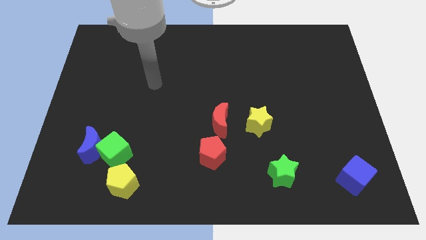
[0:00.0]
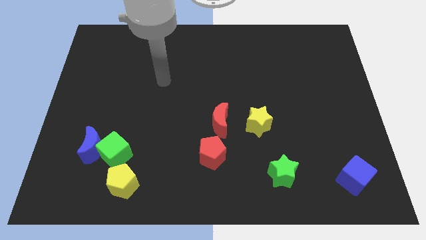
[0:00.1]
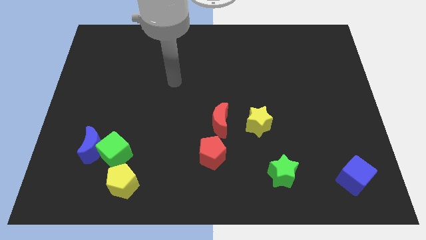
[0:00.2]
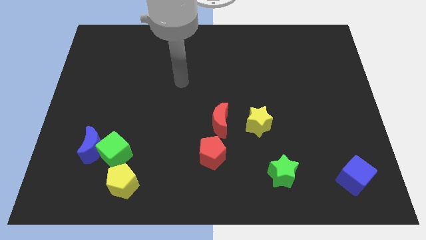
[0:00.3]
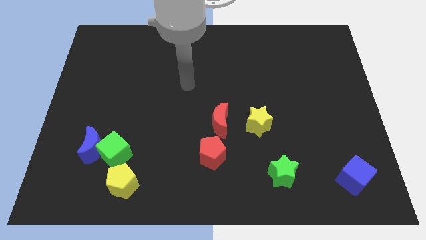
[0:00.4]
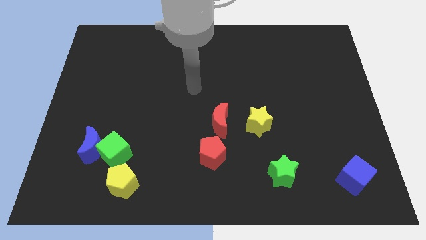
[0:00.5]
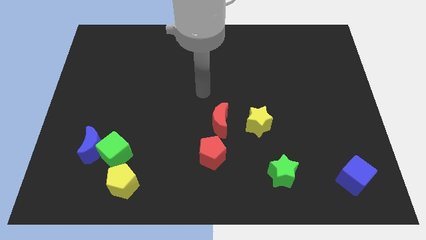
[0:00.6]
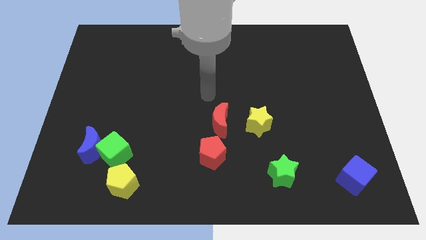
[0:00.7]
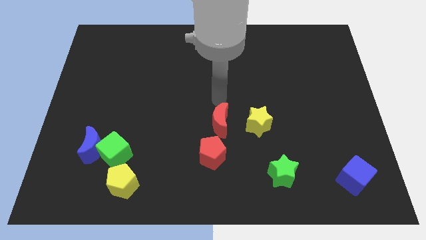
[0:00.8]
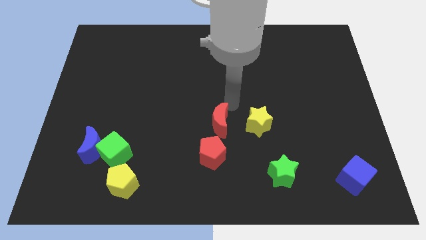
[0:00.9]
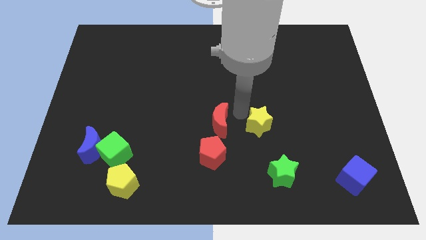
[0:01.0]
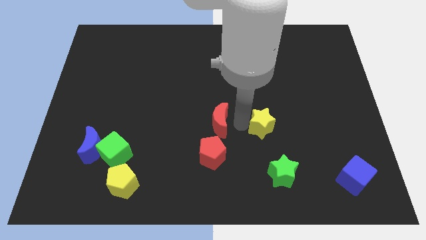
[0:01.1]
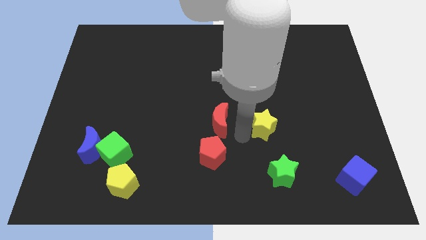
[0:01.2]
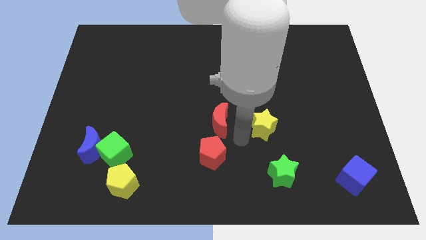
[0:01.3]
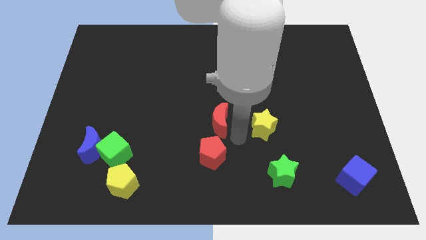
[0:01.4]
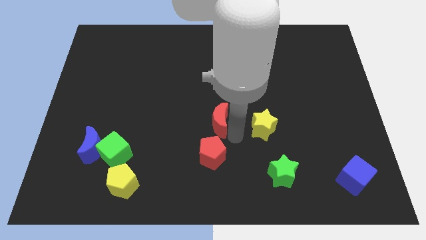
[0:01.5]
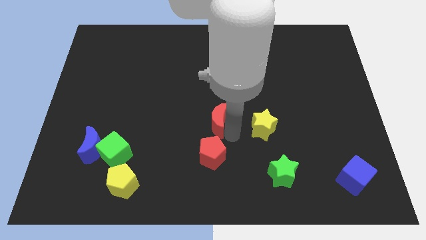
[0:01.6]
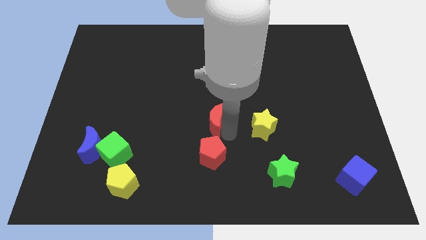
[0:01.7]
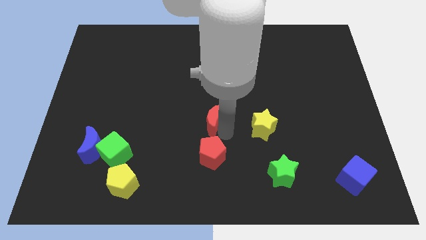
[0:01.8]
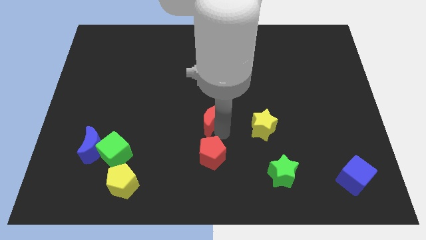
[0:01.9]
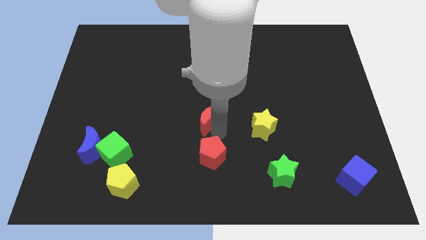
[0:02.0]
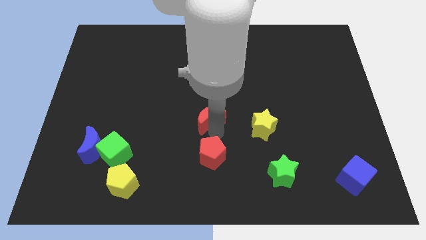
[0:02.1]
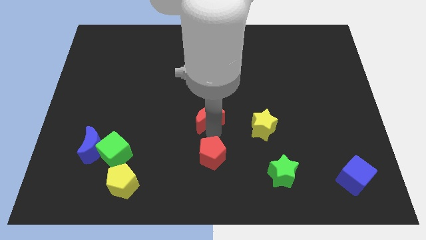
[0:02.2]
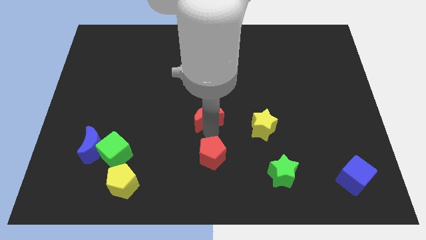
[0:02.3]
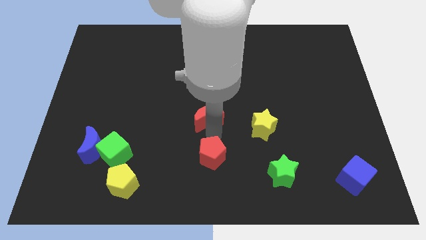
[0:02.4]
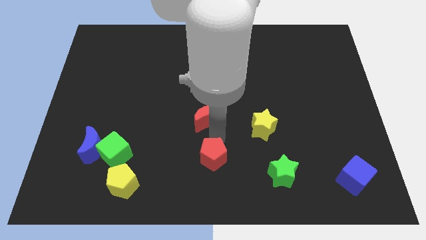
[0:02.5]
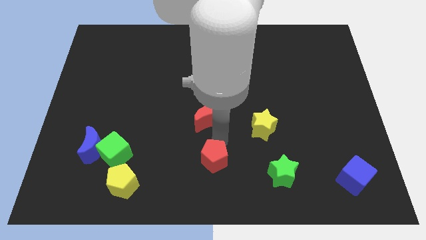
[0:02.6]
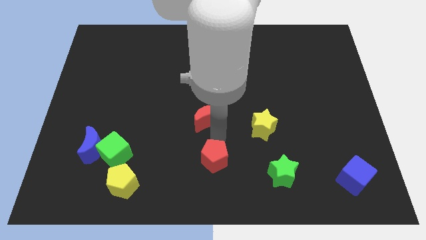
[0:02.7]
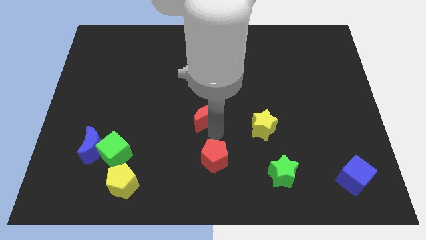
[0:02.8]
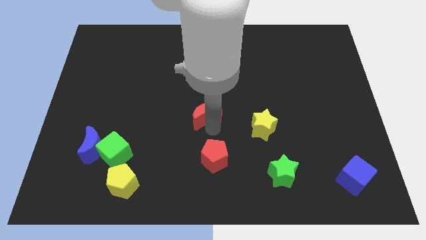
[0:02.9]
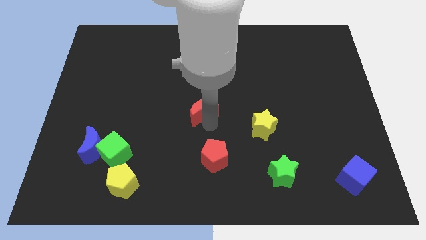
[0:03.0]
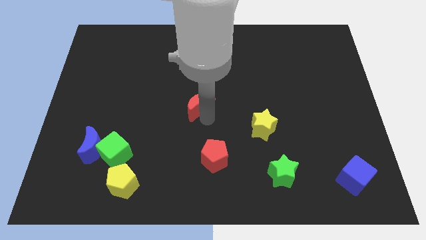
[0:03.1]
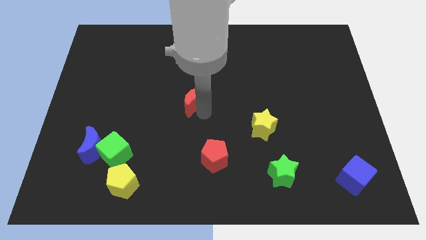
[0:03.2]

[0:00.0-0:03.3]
move the red moon diagonally up and to the left slightly

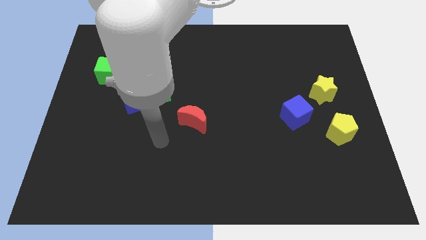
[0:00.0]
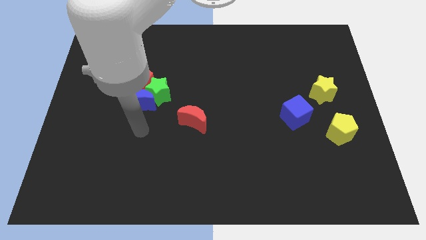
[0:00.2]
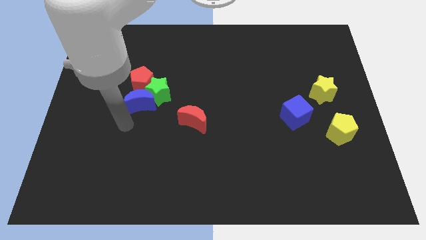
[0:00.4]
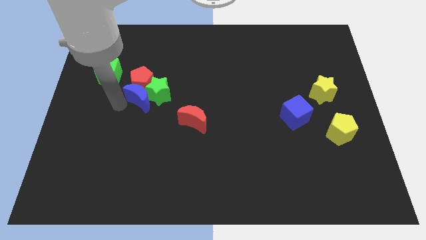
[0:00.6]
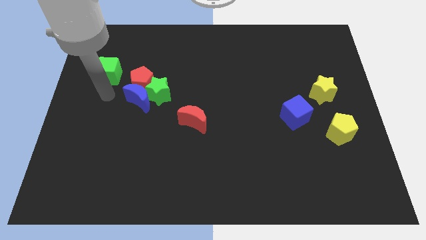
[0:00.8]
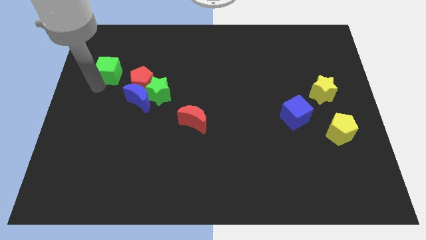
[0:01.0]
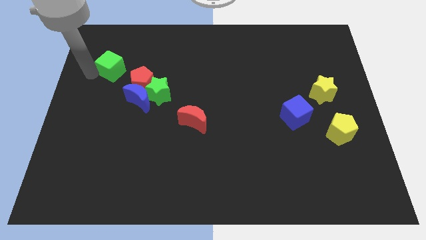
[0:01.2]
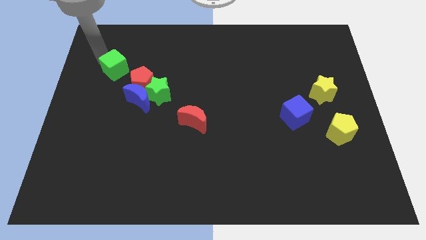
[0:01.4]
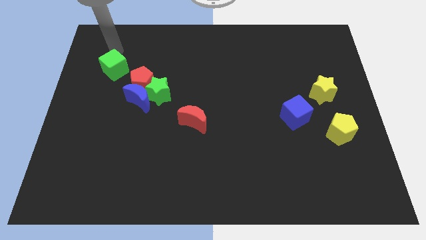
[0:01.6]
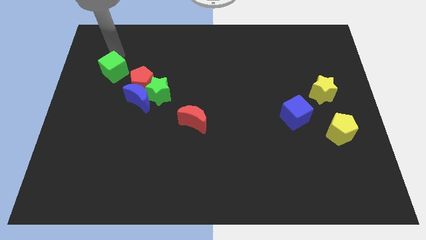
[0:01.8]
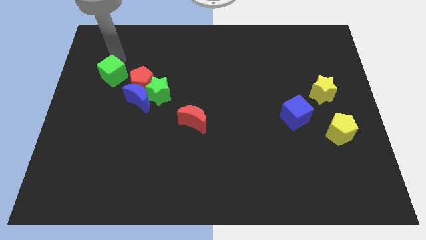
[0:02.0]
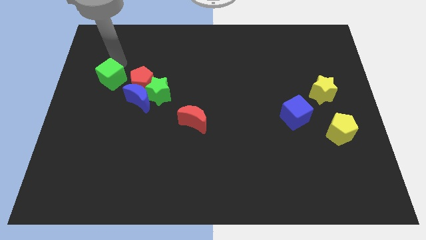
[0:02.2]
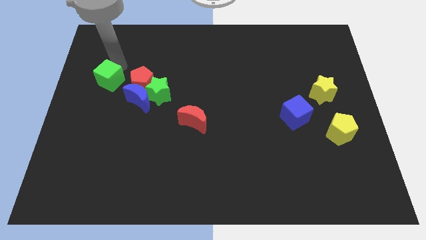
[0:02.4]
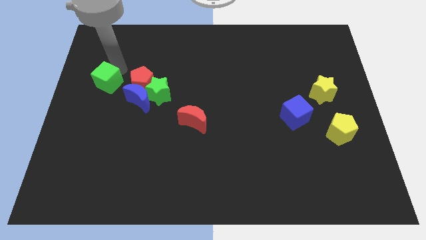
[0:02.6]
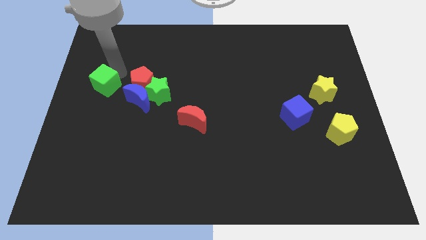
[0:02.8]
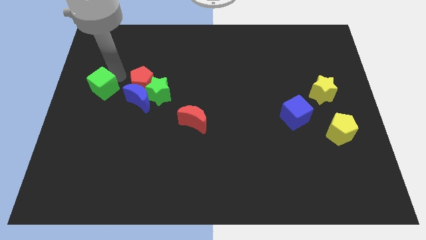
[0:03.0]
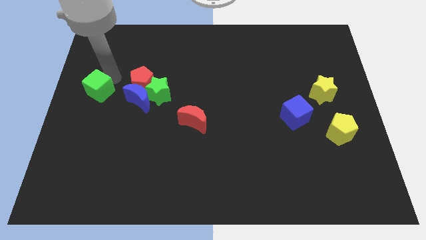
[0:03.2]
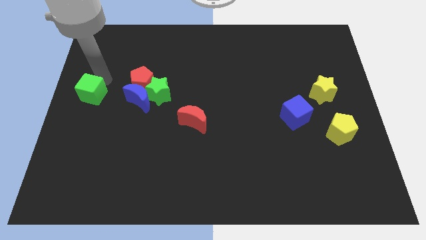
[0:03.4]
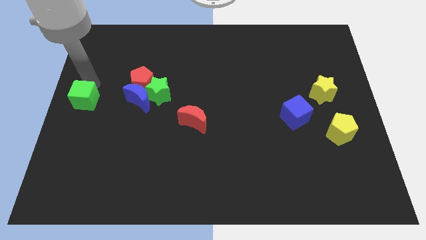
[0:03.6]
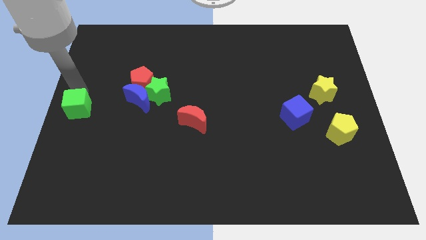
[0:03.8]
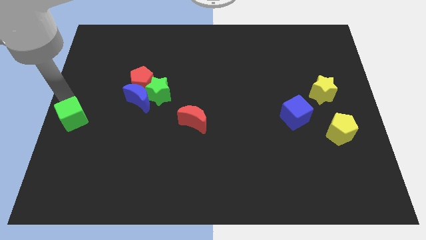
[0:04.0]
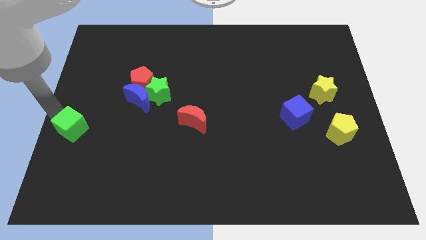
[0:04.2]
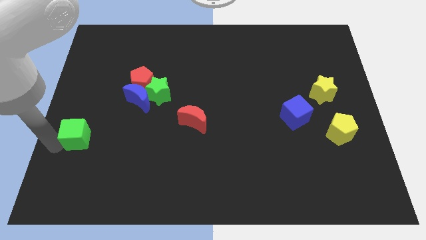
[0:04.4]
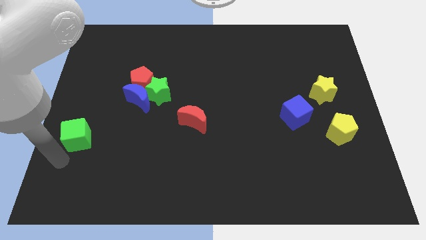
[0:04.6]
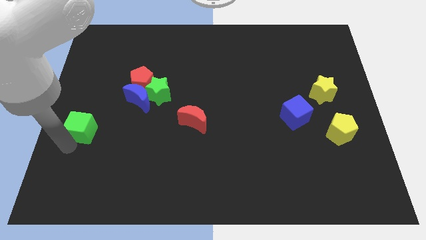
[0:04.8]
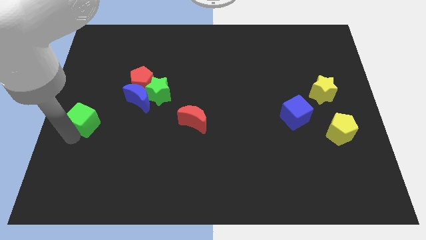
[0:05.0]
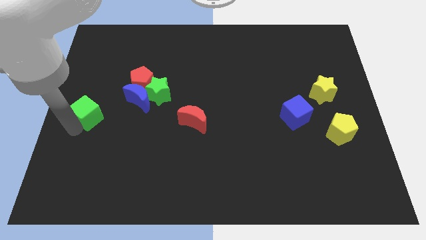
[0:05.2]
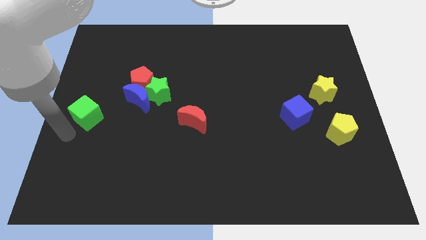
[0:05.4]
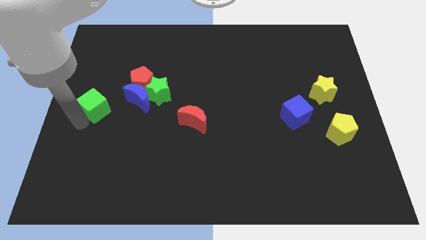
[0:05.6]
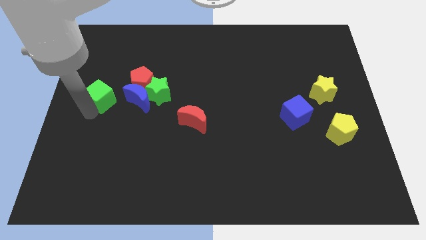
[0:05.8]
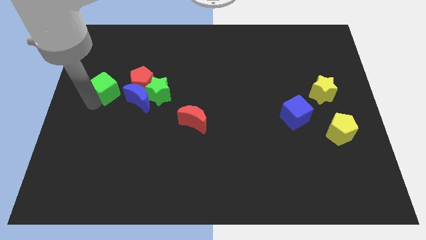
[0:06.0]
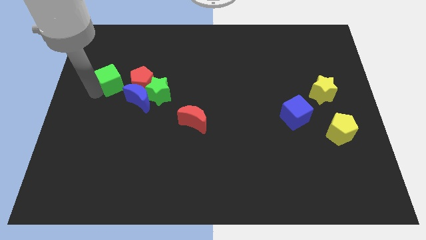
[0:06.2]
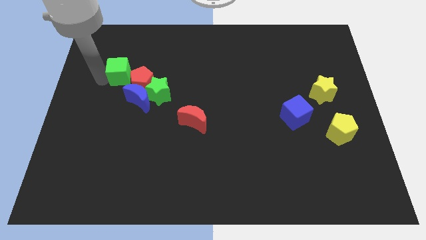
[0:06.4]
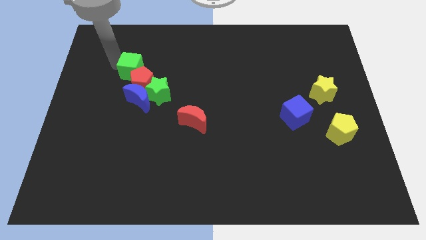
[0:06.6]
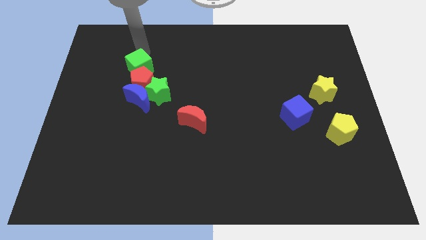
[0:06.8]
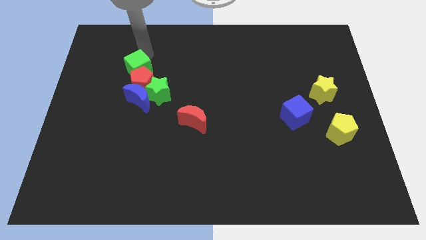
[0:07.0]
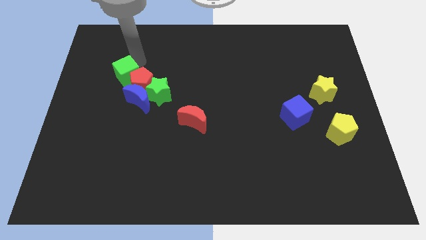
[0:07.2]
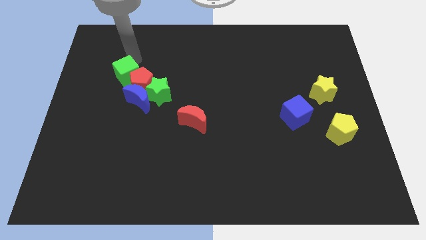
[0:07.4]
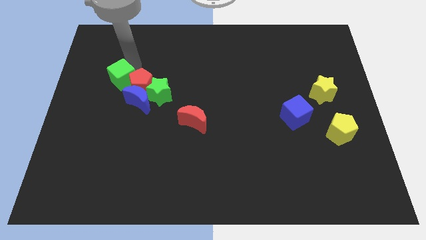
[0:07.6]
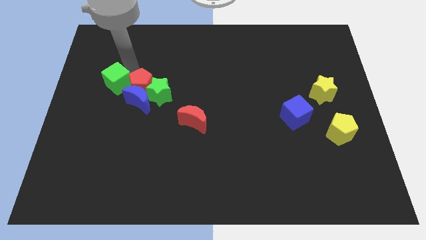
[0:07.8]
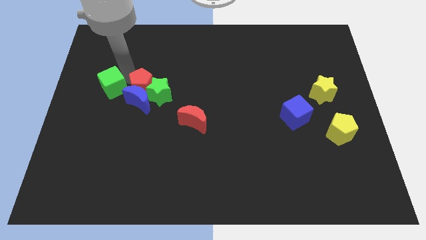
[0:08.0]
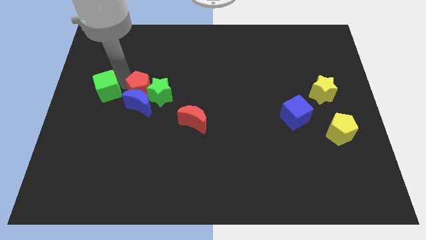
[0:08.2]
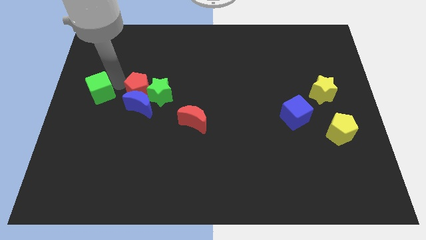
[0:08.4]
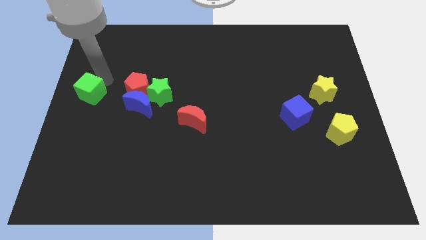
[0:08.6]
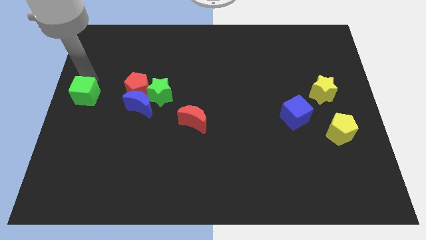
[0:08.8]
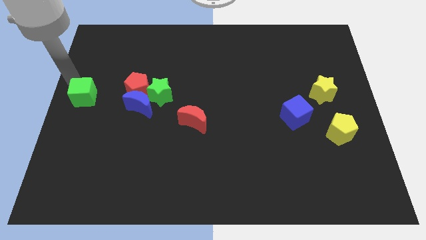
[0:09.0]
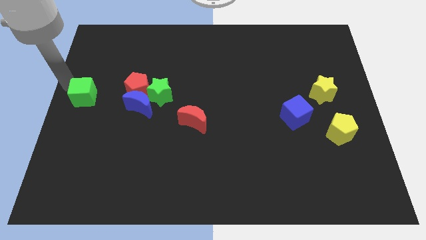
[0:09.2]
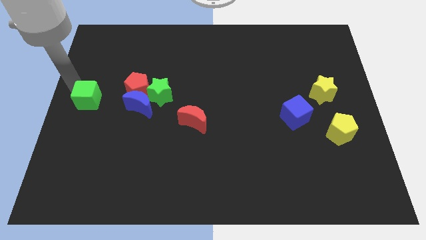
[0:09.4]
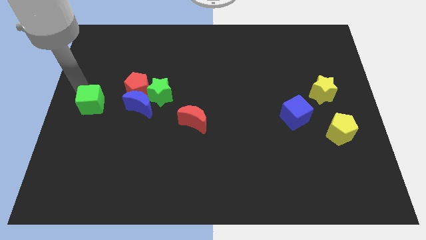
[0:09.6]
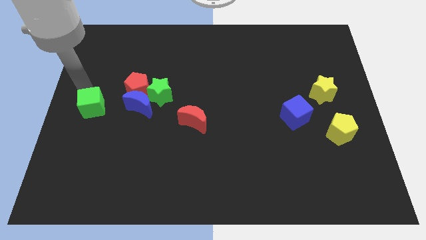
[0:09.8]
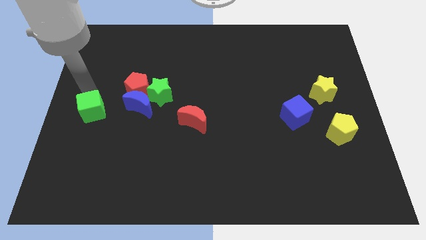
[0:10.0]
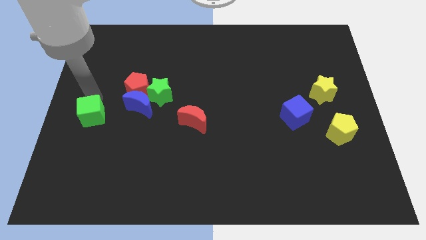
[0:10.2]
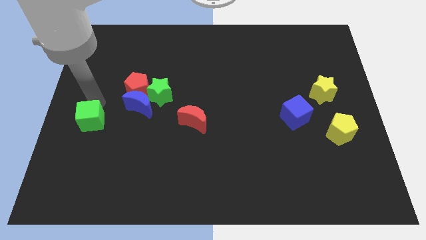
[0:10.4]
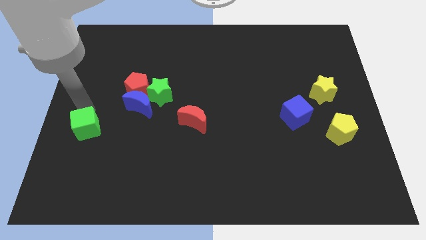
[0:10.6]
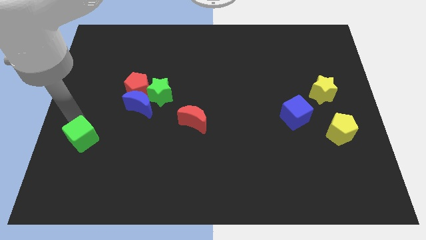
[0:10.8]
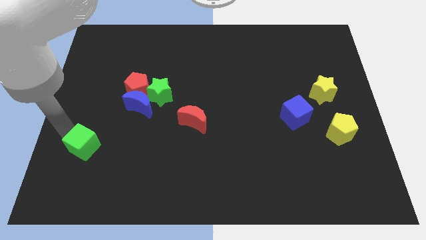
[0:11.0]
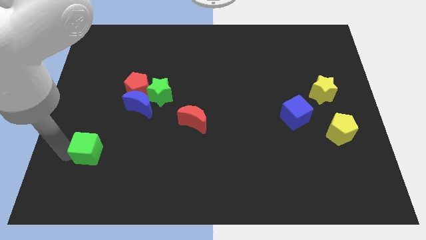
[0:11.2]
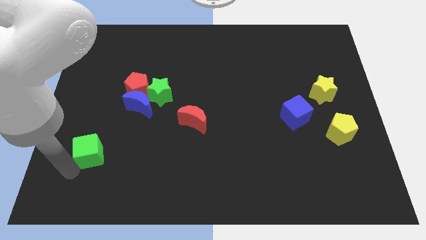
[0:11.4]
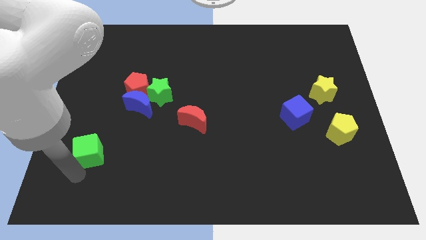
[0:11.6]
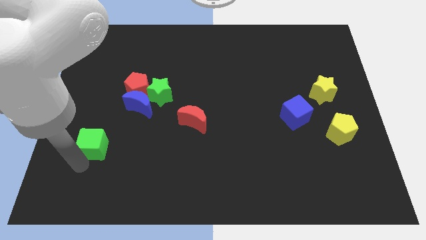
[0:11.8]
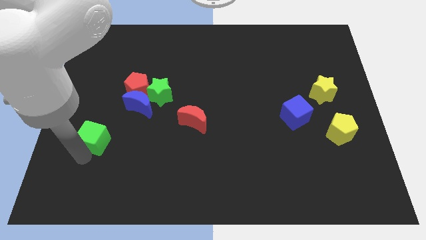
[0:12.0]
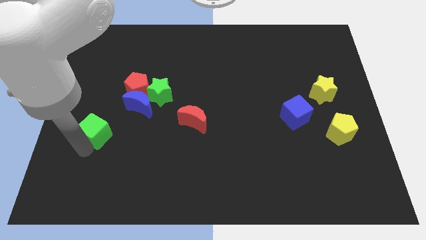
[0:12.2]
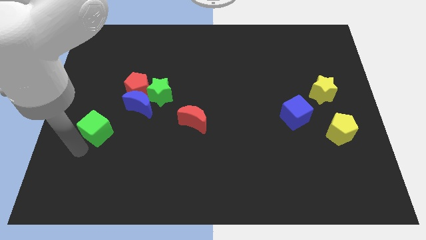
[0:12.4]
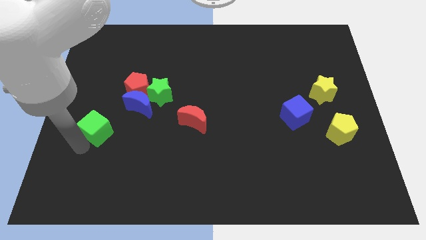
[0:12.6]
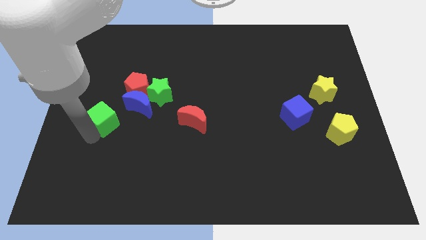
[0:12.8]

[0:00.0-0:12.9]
slightly move the green cube down and to the right
